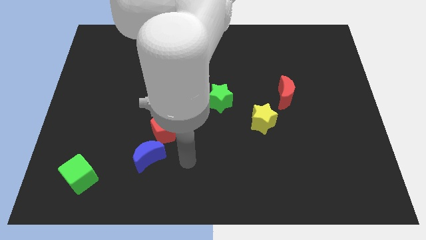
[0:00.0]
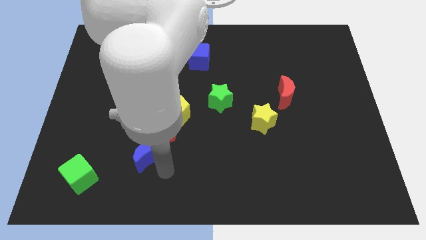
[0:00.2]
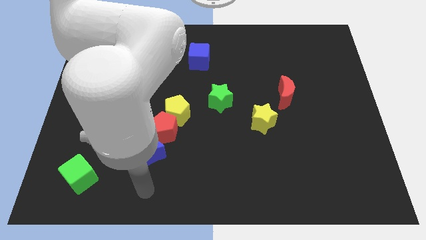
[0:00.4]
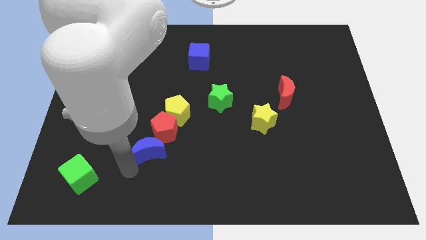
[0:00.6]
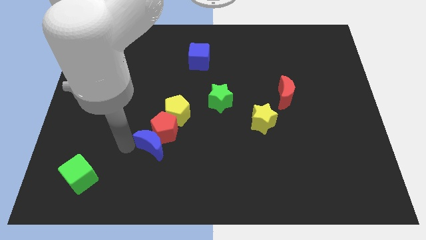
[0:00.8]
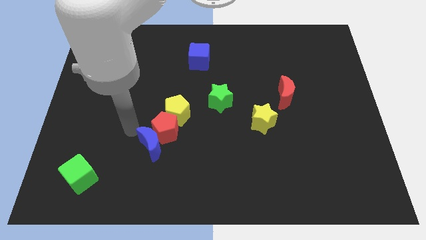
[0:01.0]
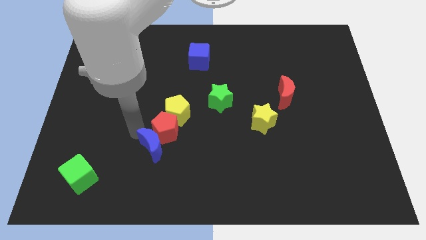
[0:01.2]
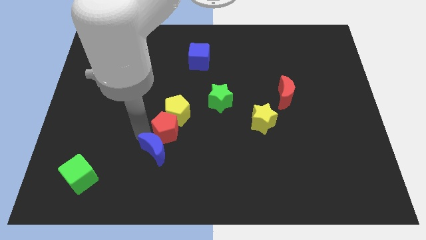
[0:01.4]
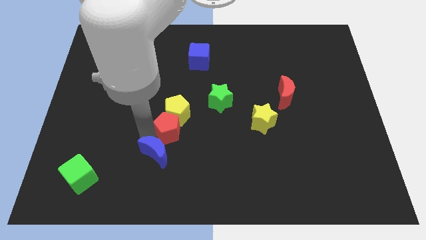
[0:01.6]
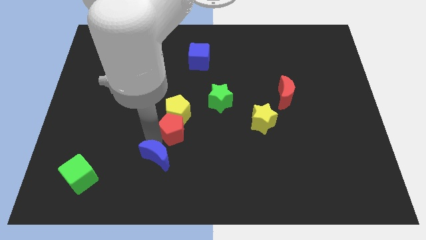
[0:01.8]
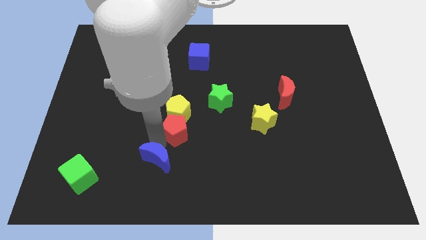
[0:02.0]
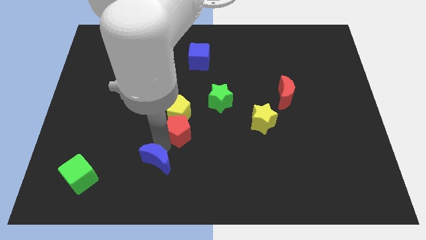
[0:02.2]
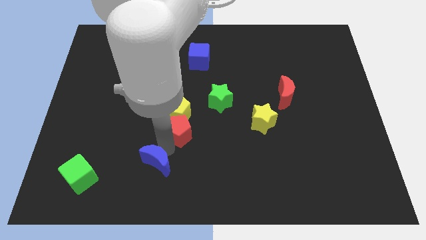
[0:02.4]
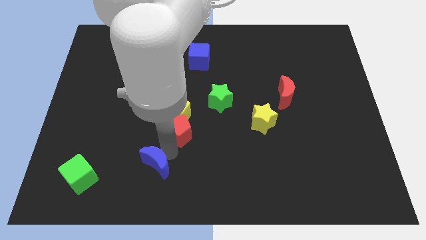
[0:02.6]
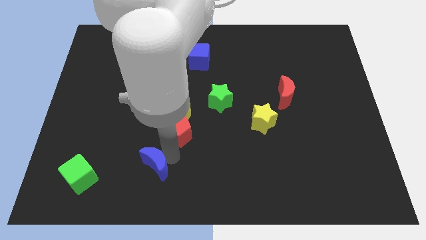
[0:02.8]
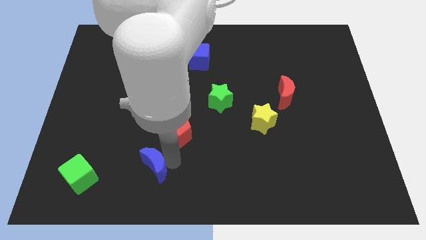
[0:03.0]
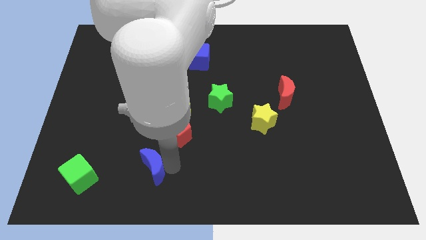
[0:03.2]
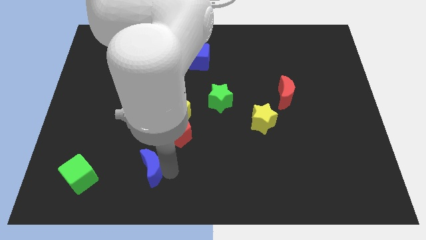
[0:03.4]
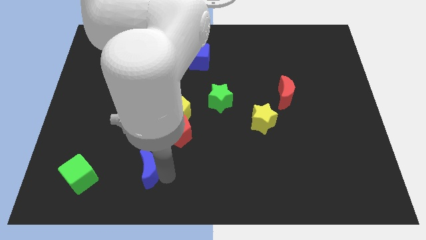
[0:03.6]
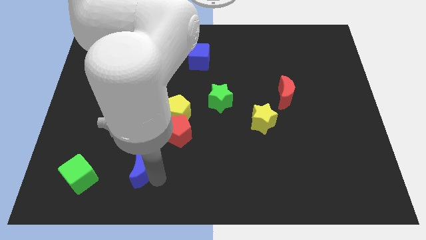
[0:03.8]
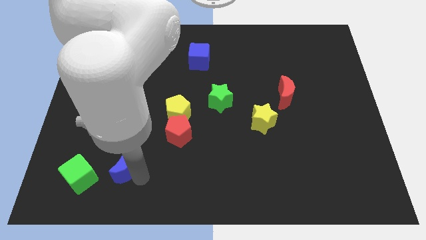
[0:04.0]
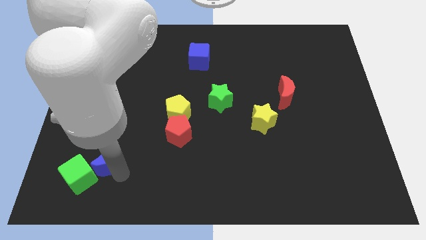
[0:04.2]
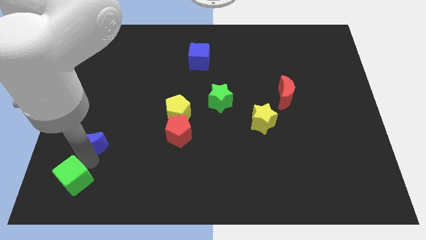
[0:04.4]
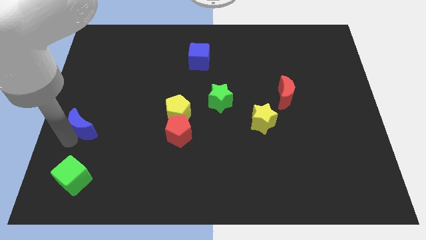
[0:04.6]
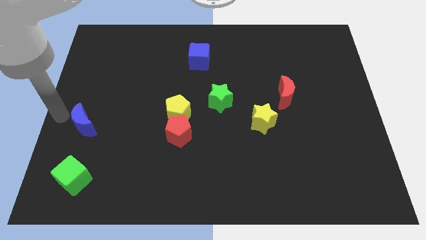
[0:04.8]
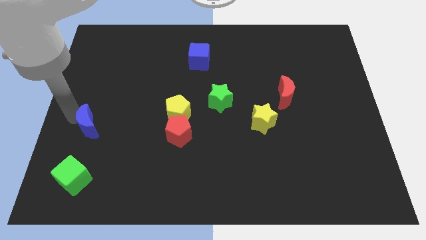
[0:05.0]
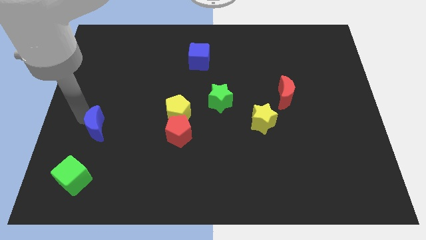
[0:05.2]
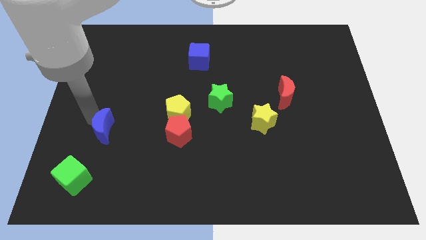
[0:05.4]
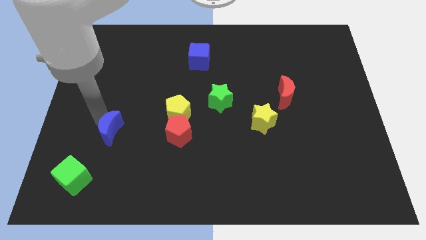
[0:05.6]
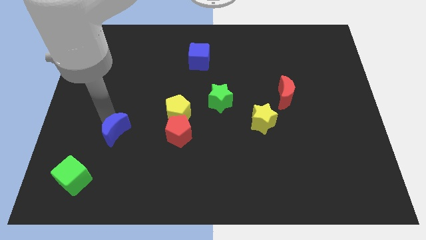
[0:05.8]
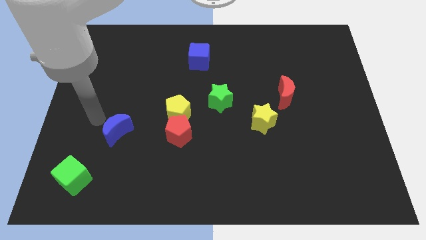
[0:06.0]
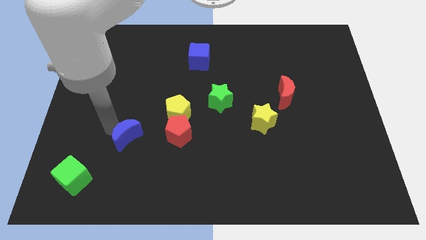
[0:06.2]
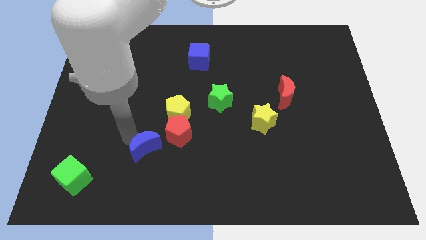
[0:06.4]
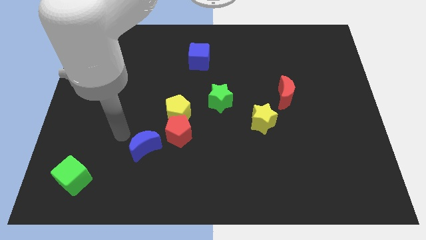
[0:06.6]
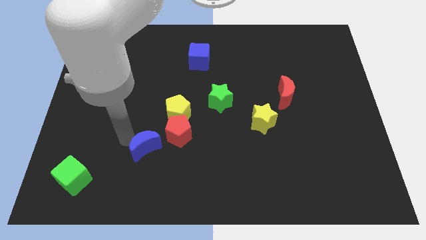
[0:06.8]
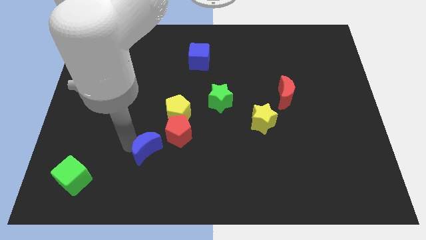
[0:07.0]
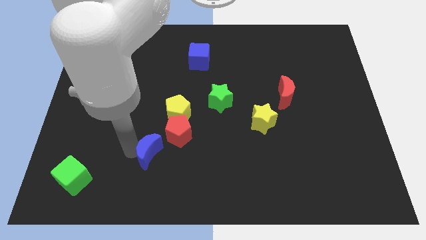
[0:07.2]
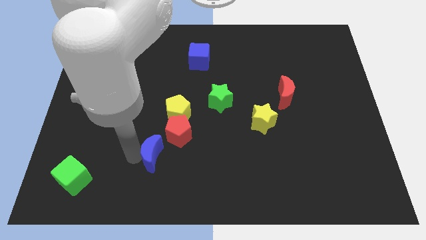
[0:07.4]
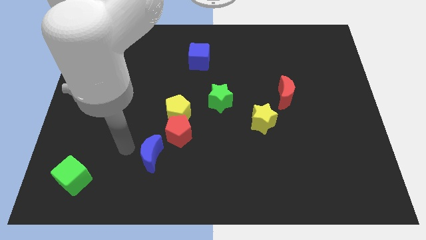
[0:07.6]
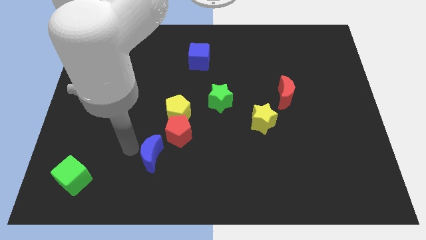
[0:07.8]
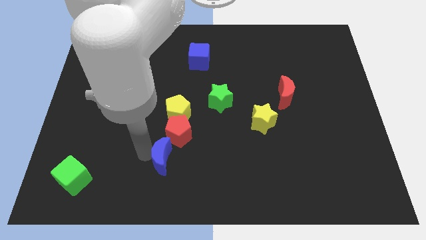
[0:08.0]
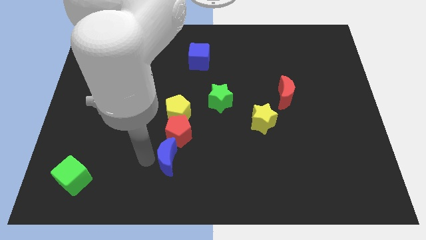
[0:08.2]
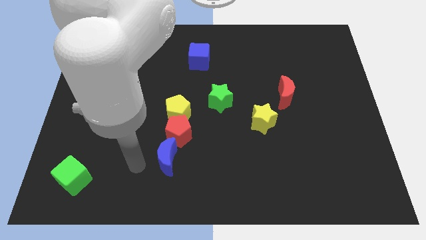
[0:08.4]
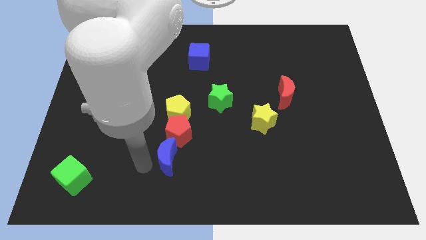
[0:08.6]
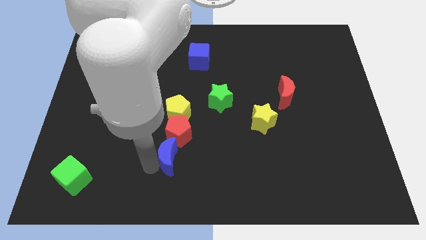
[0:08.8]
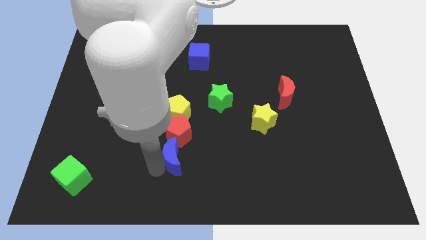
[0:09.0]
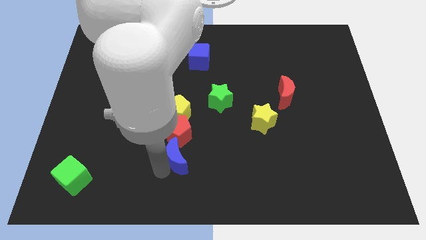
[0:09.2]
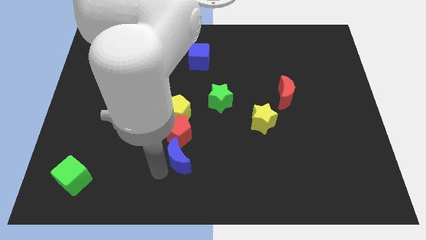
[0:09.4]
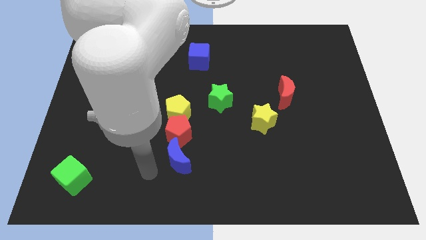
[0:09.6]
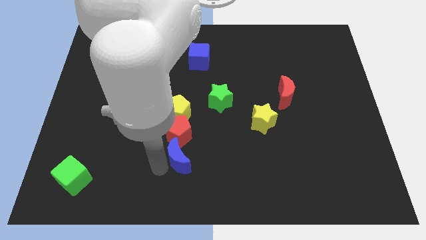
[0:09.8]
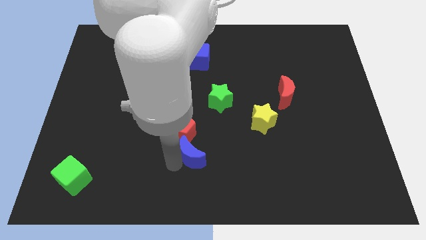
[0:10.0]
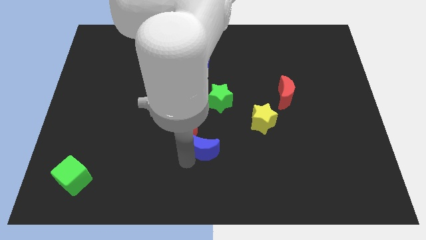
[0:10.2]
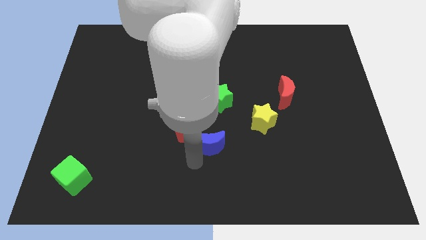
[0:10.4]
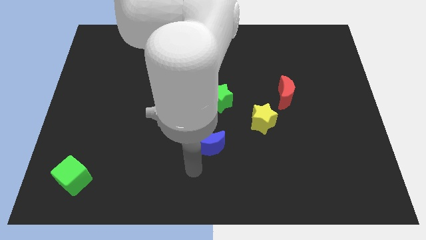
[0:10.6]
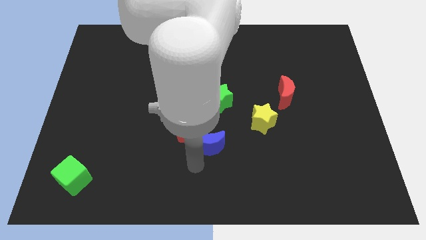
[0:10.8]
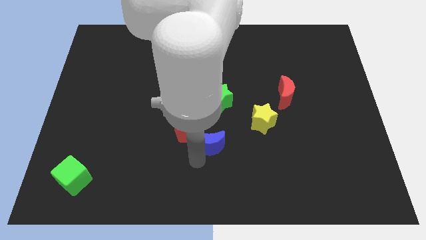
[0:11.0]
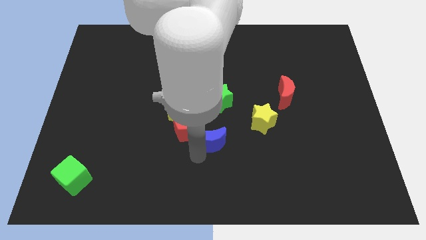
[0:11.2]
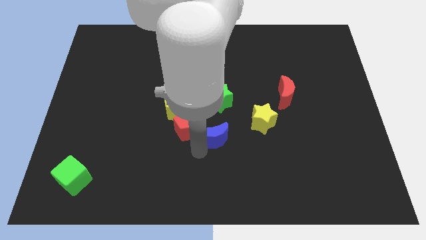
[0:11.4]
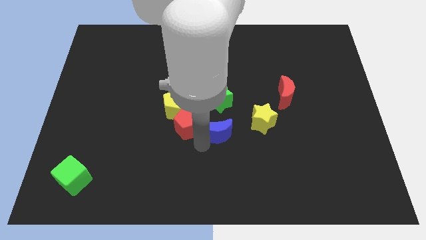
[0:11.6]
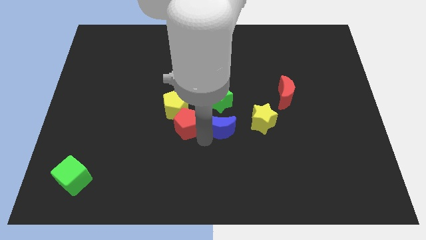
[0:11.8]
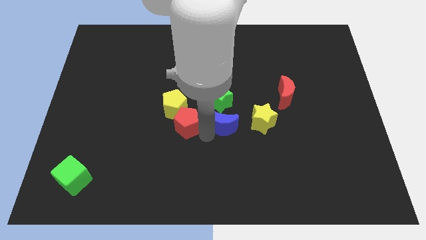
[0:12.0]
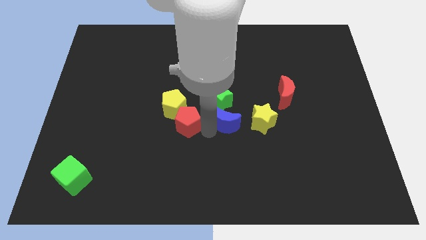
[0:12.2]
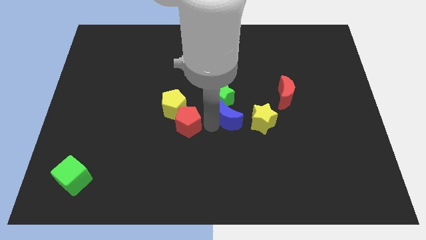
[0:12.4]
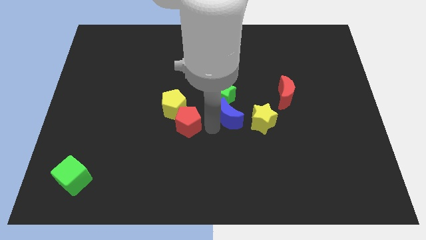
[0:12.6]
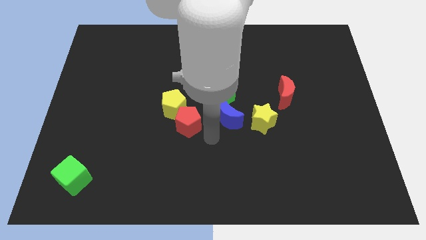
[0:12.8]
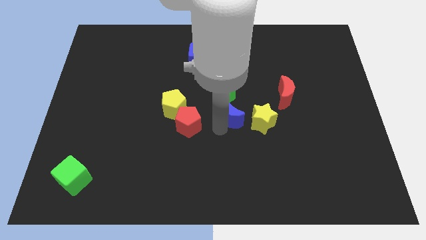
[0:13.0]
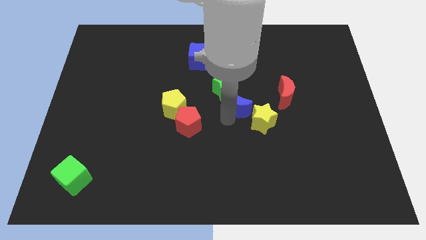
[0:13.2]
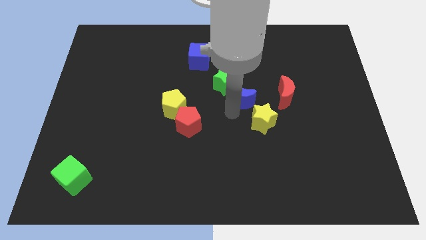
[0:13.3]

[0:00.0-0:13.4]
slide the blue moon above the yellow star
